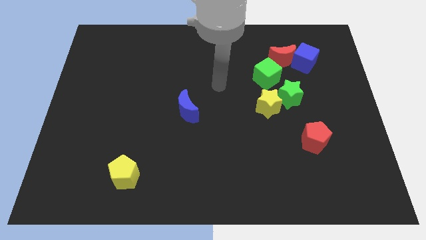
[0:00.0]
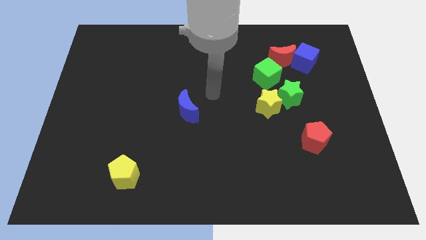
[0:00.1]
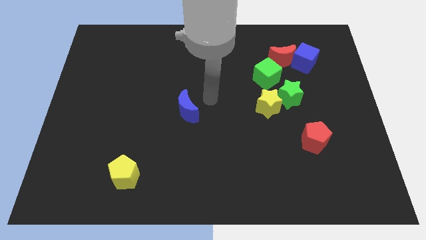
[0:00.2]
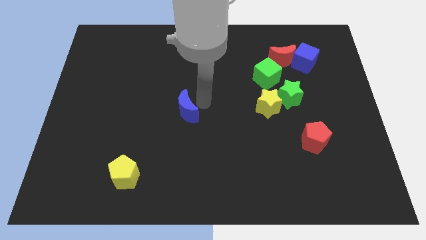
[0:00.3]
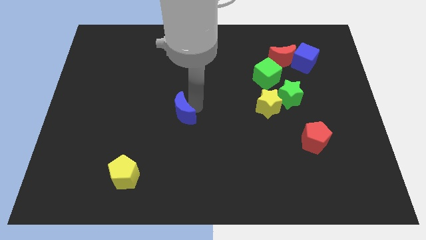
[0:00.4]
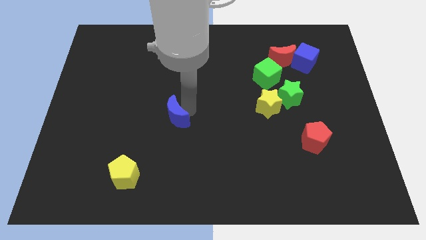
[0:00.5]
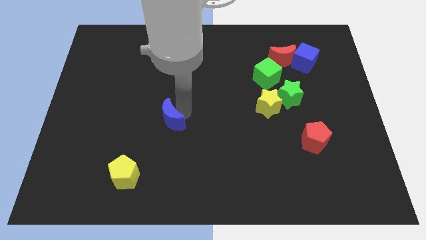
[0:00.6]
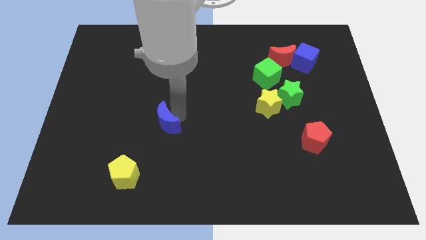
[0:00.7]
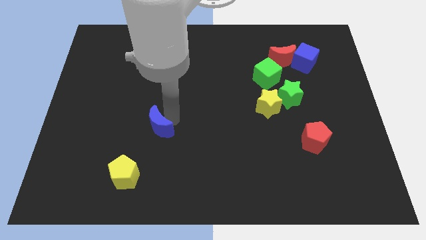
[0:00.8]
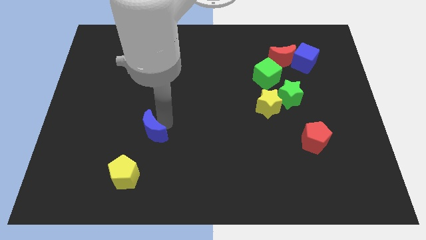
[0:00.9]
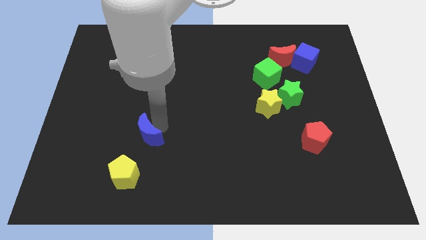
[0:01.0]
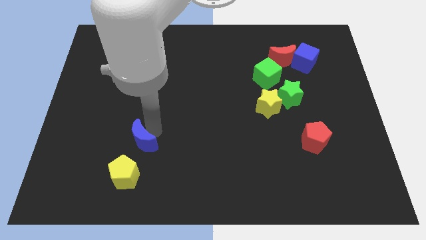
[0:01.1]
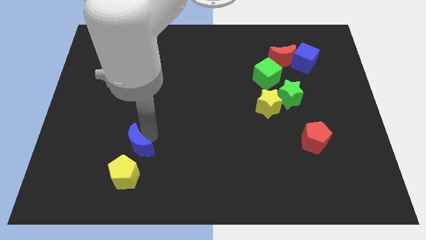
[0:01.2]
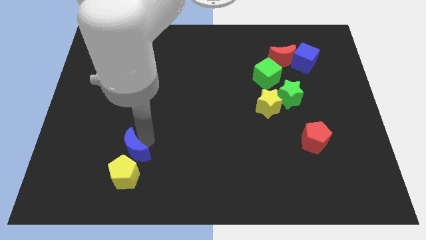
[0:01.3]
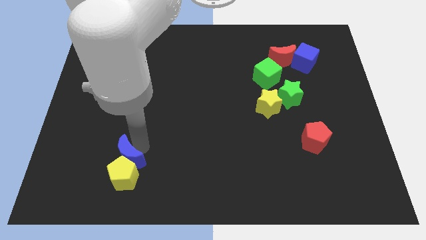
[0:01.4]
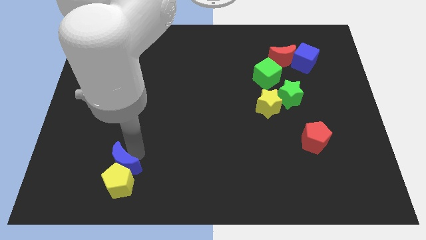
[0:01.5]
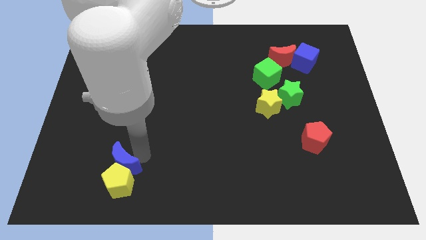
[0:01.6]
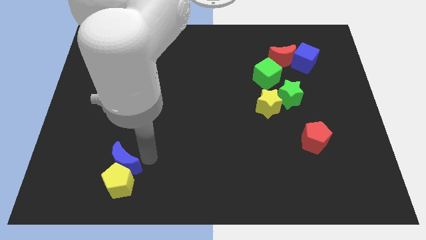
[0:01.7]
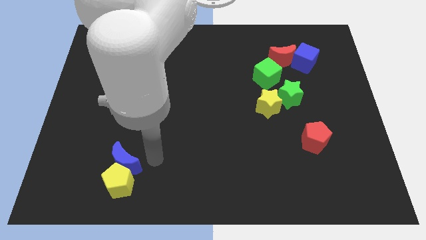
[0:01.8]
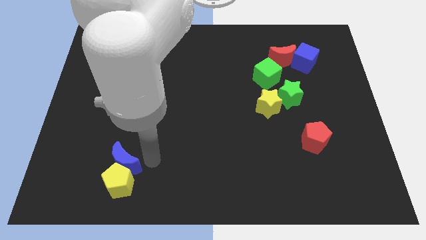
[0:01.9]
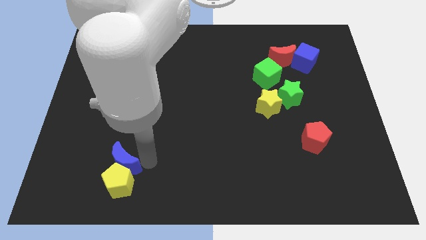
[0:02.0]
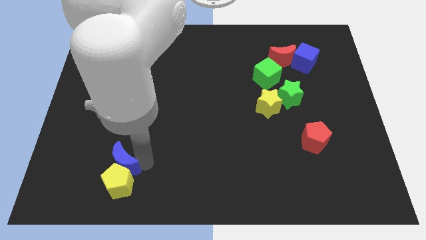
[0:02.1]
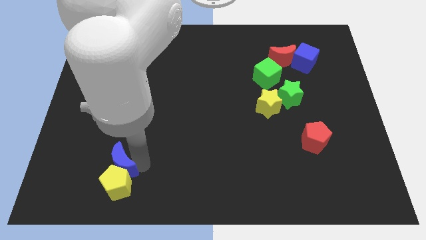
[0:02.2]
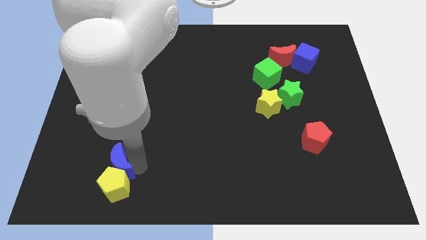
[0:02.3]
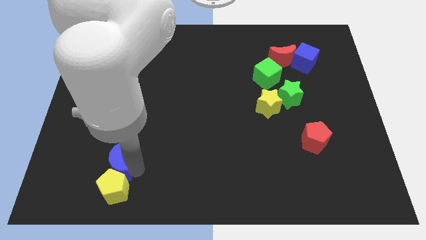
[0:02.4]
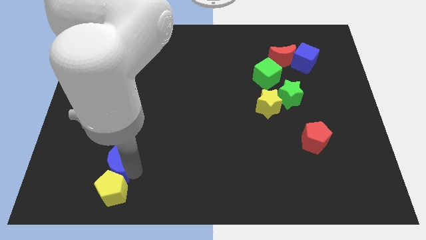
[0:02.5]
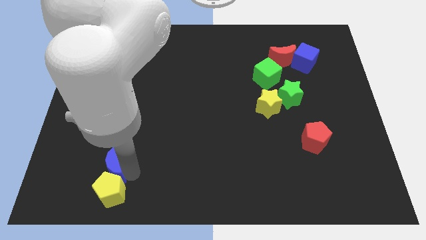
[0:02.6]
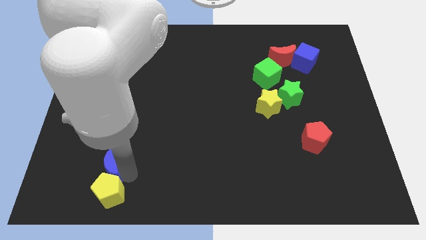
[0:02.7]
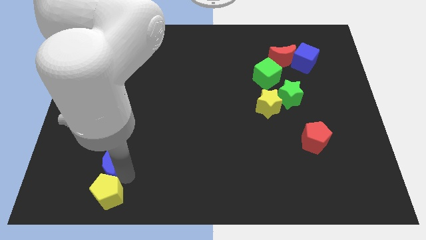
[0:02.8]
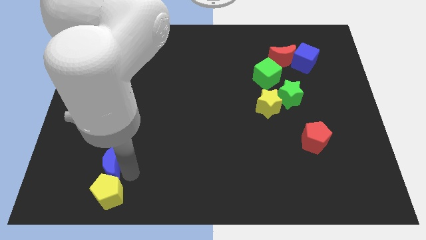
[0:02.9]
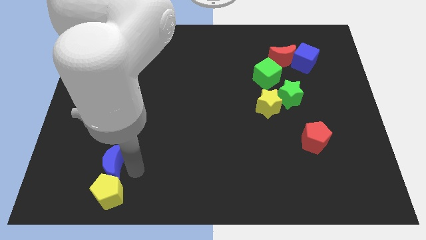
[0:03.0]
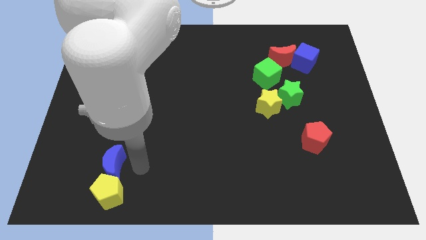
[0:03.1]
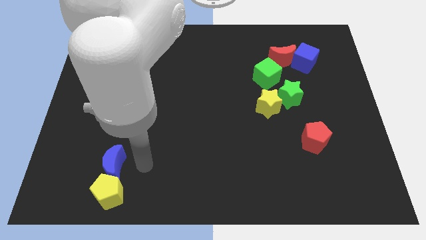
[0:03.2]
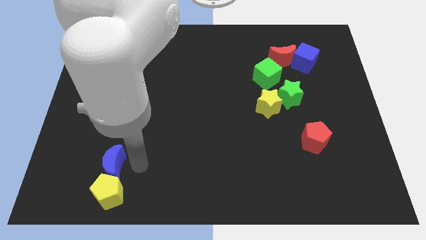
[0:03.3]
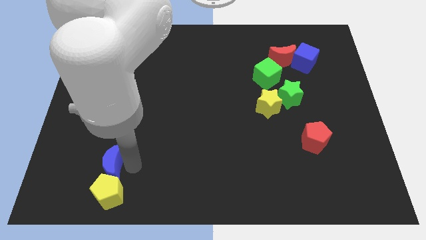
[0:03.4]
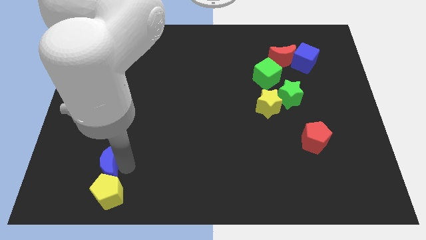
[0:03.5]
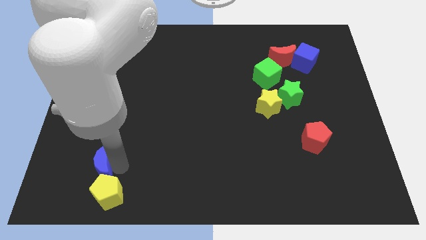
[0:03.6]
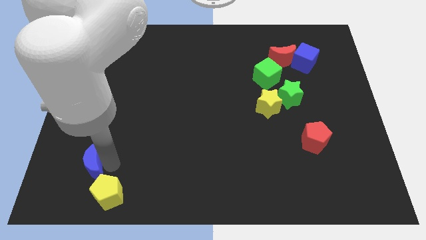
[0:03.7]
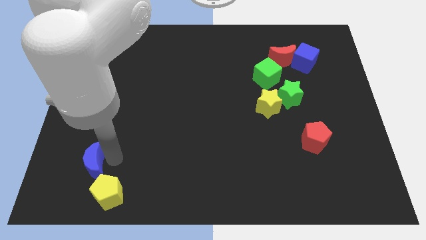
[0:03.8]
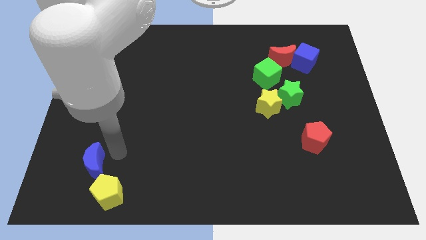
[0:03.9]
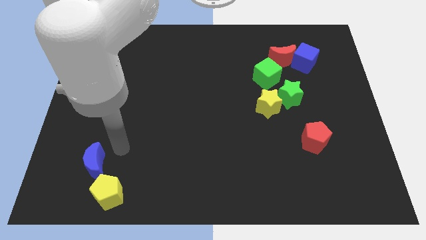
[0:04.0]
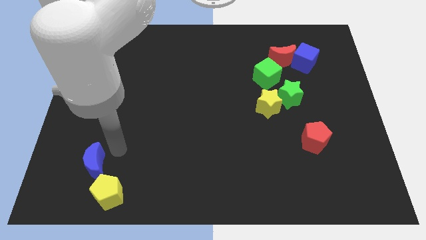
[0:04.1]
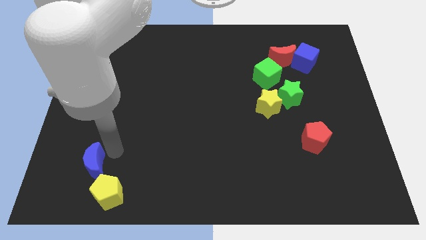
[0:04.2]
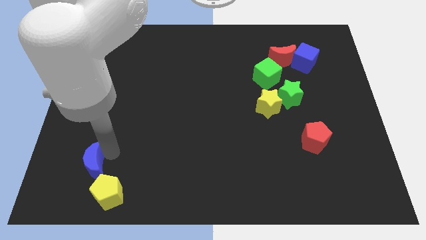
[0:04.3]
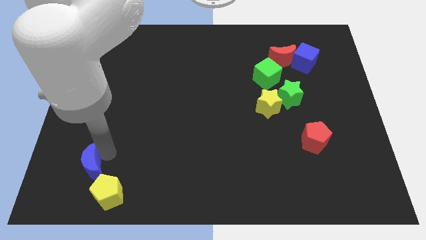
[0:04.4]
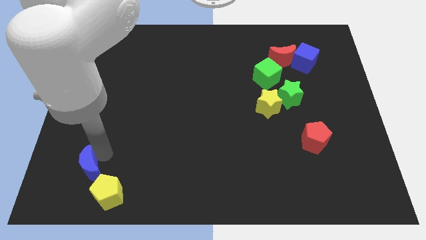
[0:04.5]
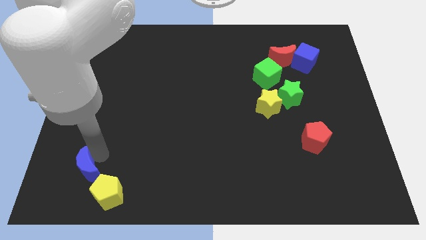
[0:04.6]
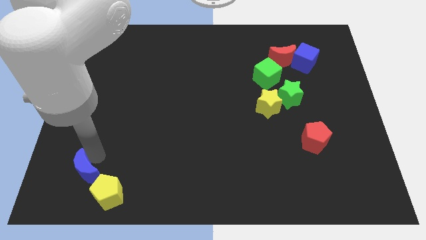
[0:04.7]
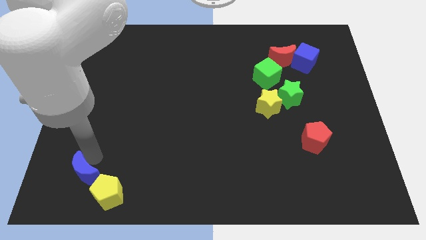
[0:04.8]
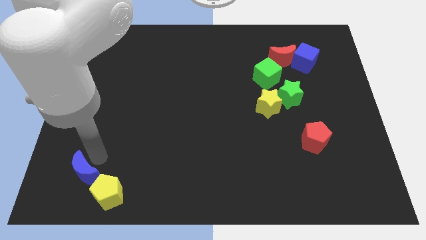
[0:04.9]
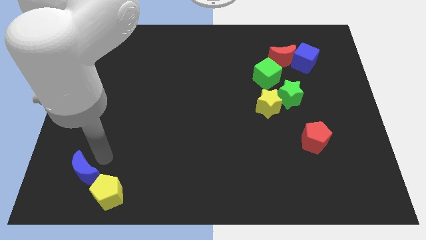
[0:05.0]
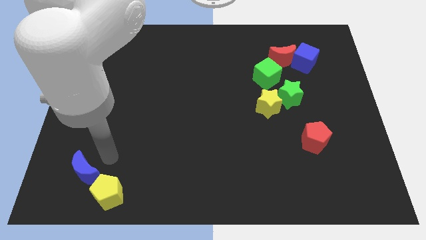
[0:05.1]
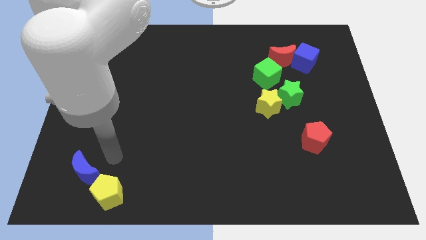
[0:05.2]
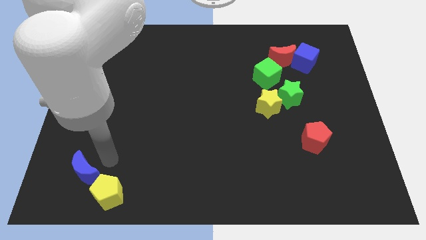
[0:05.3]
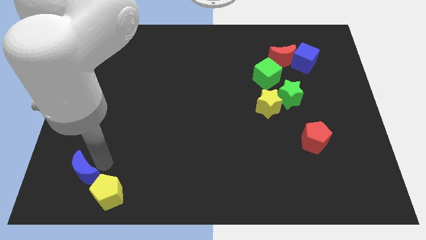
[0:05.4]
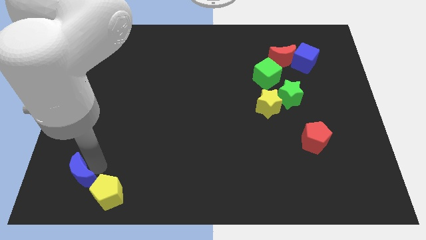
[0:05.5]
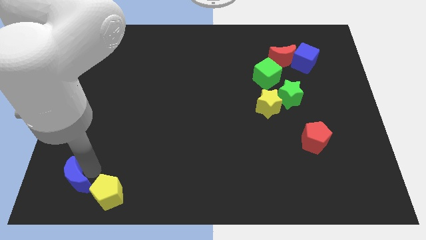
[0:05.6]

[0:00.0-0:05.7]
move the blue moon to the lower left corner

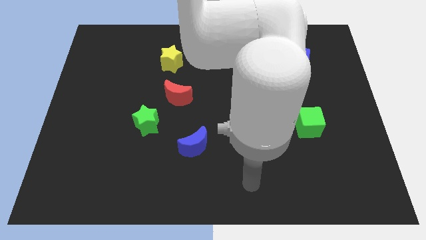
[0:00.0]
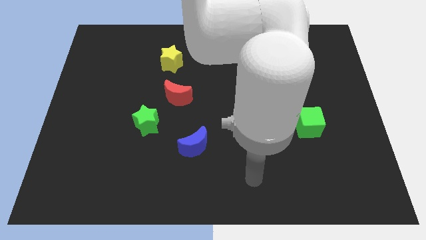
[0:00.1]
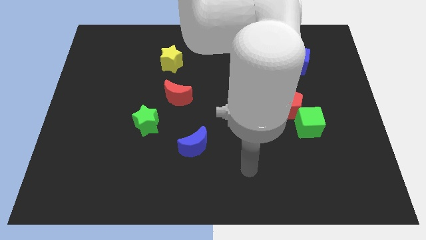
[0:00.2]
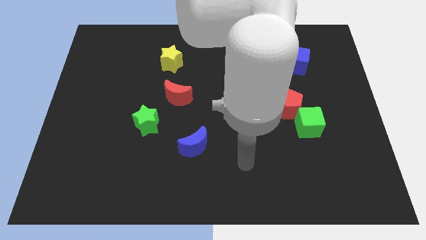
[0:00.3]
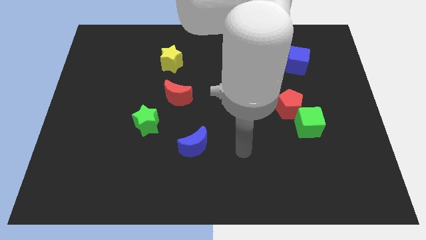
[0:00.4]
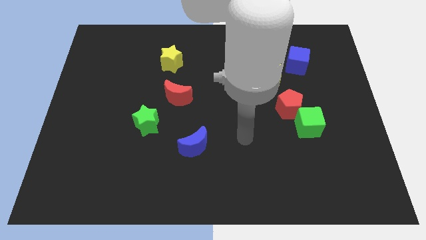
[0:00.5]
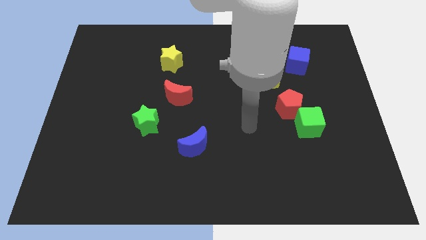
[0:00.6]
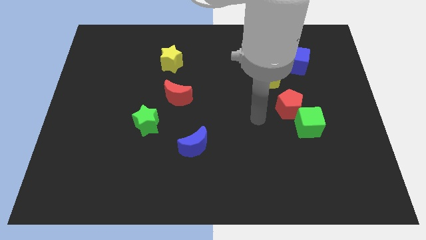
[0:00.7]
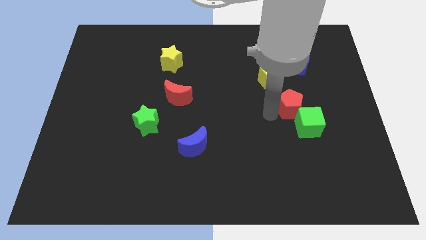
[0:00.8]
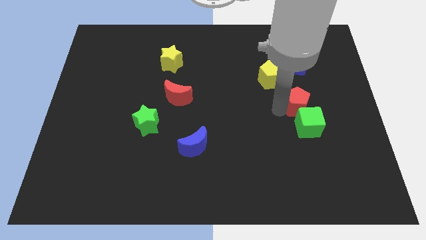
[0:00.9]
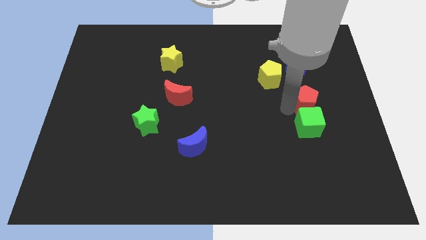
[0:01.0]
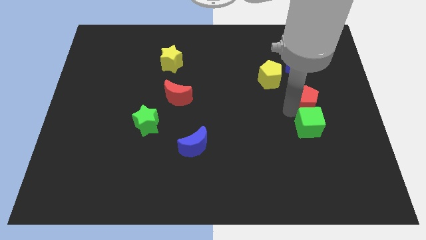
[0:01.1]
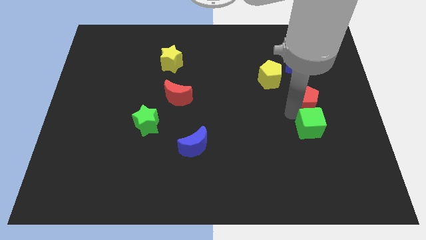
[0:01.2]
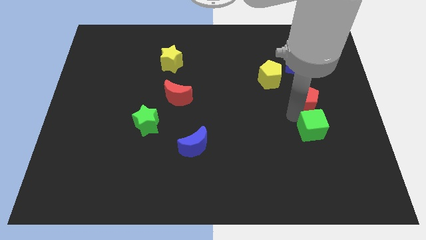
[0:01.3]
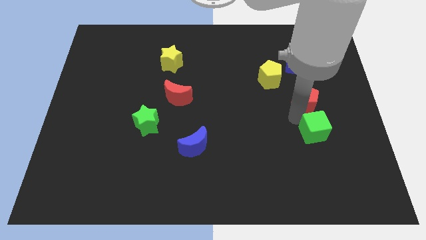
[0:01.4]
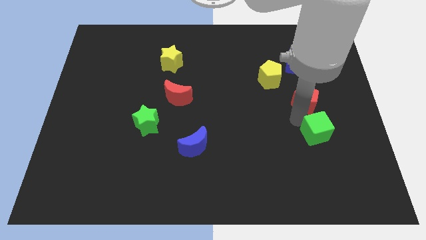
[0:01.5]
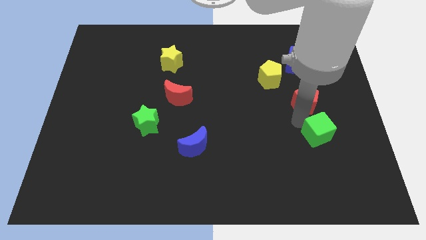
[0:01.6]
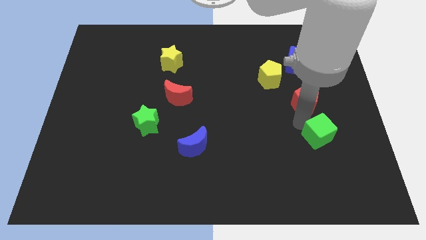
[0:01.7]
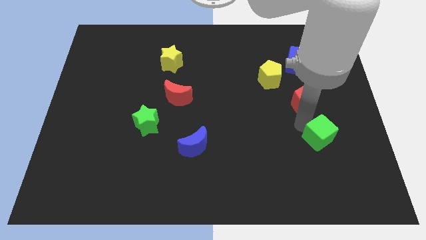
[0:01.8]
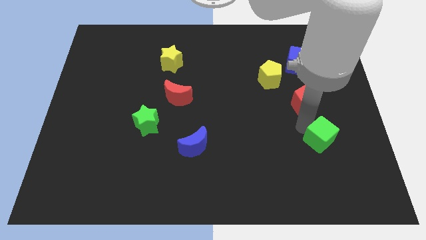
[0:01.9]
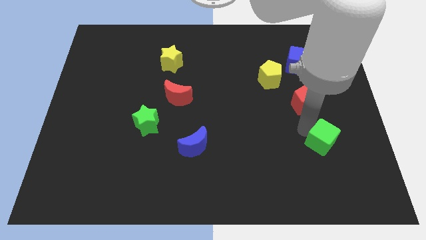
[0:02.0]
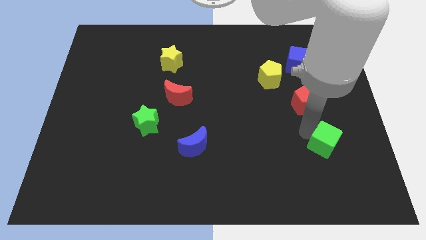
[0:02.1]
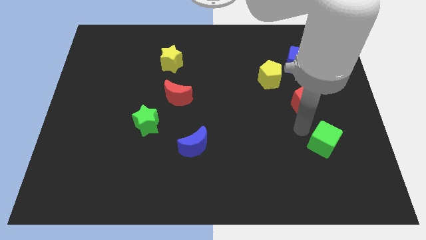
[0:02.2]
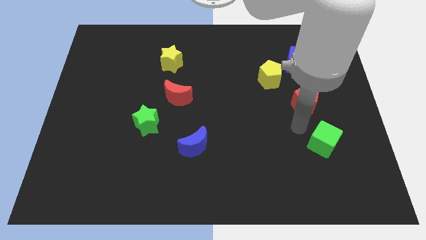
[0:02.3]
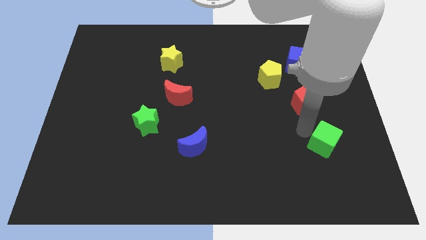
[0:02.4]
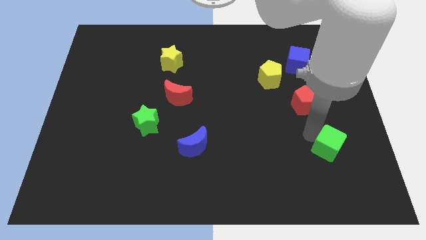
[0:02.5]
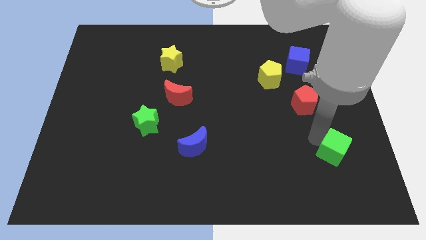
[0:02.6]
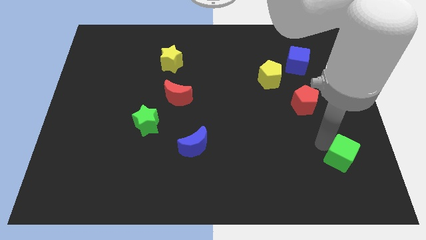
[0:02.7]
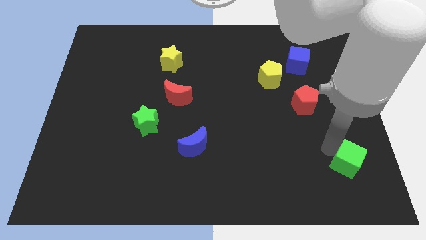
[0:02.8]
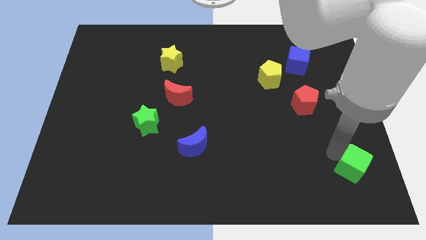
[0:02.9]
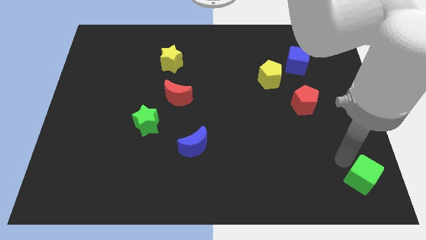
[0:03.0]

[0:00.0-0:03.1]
move the green cube to the bottom right corner
